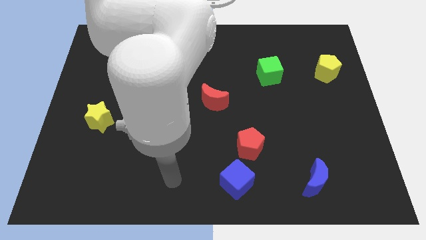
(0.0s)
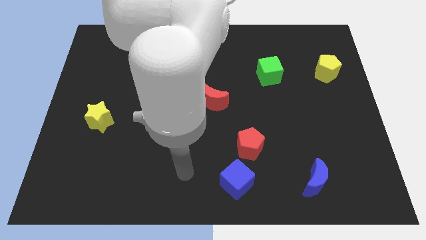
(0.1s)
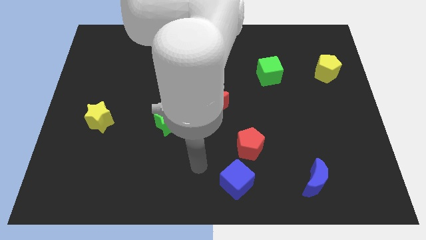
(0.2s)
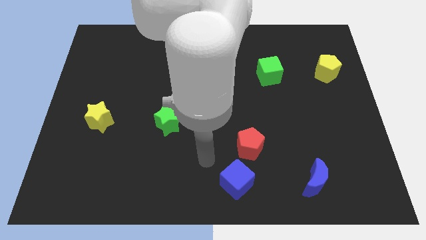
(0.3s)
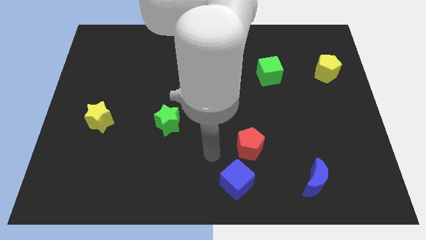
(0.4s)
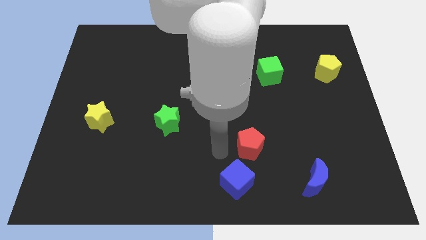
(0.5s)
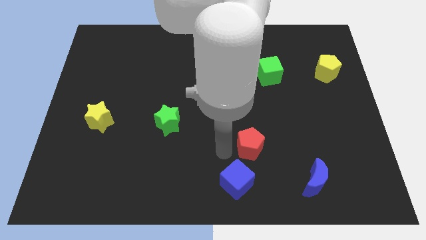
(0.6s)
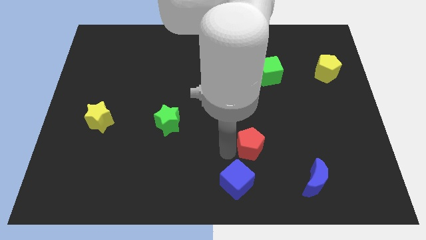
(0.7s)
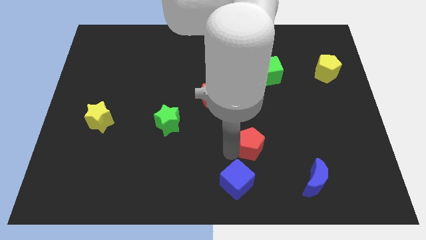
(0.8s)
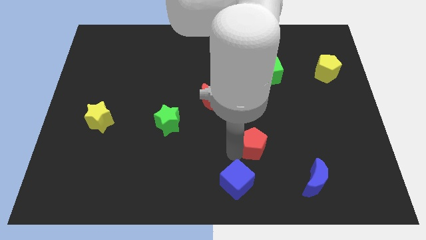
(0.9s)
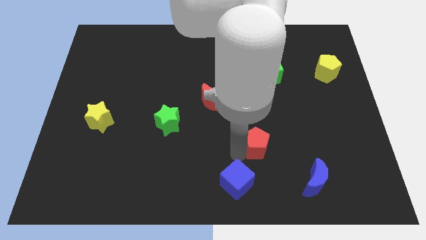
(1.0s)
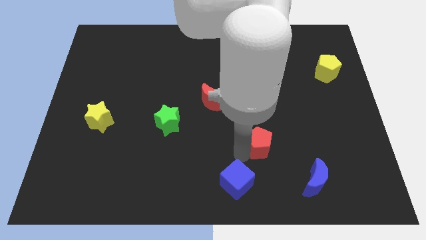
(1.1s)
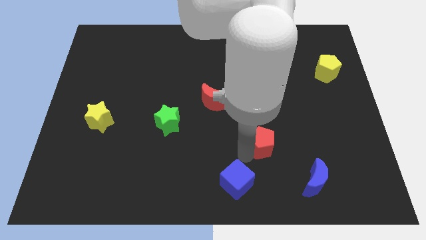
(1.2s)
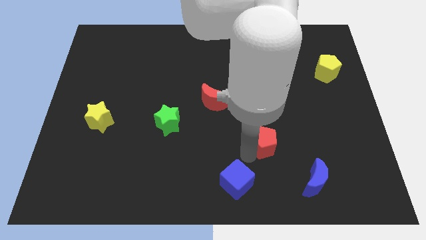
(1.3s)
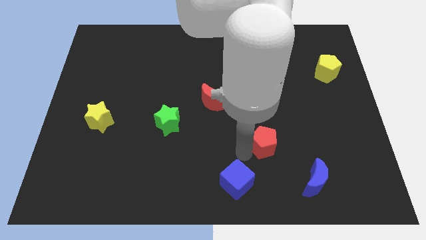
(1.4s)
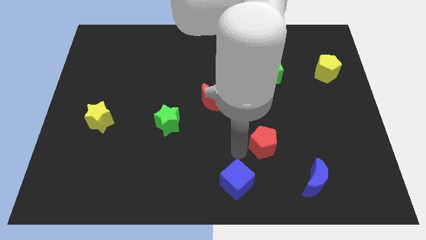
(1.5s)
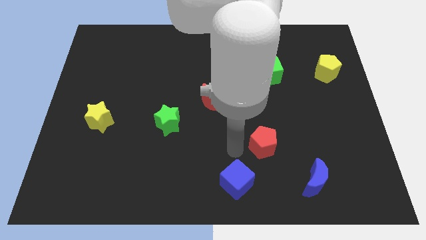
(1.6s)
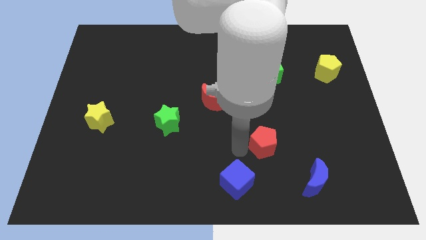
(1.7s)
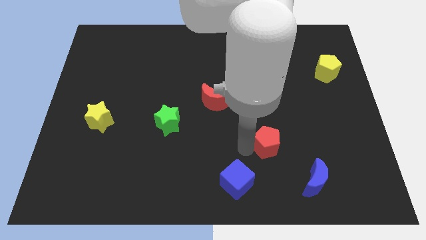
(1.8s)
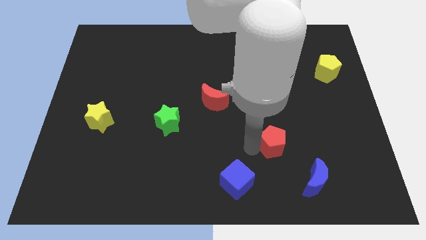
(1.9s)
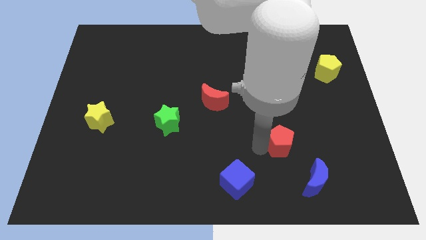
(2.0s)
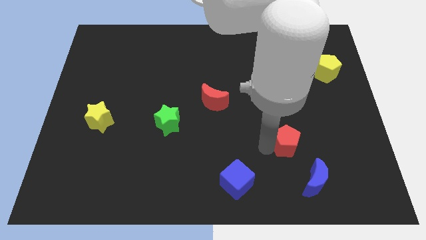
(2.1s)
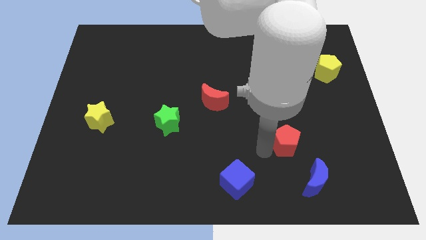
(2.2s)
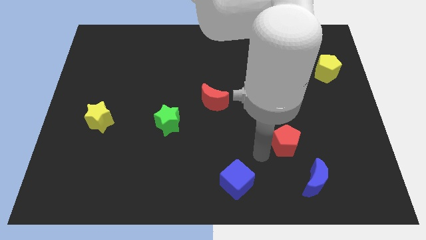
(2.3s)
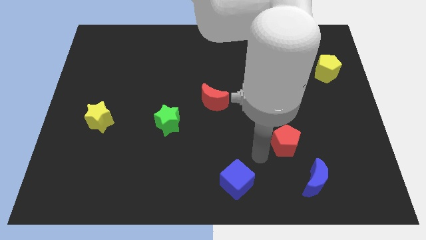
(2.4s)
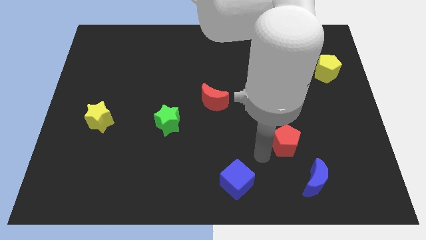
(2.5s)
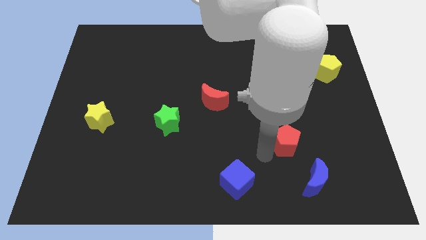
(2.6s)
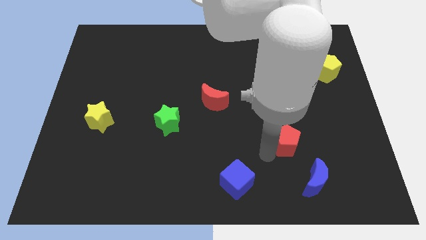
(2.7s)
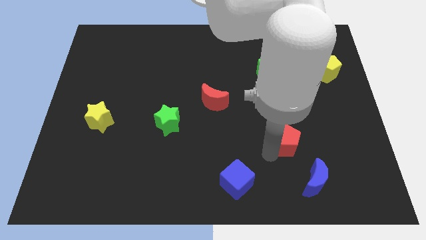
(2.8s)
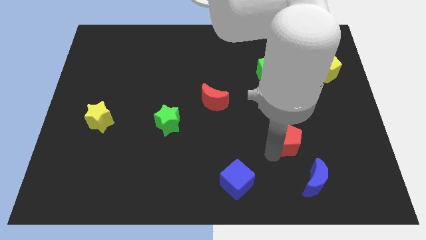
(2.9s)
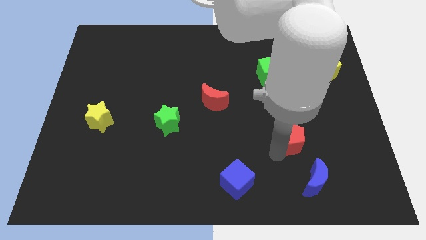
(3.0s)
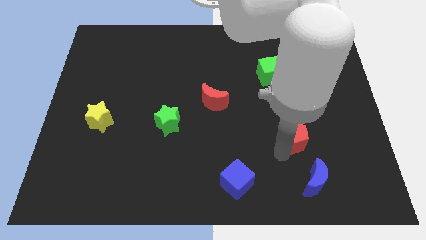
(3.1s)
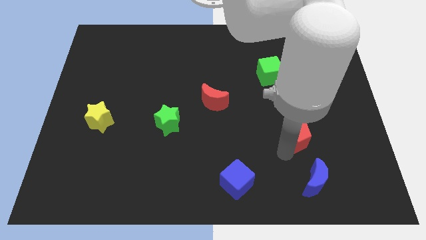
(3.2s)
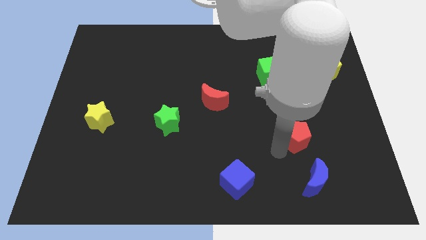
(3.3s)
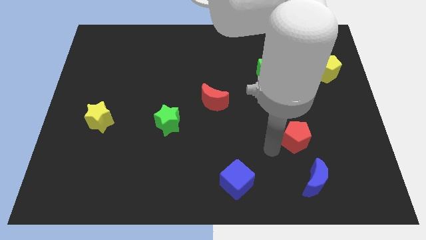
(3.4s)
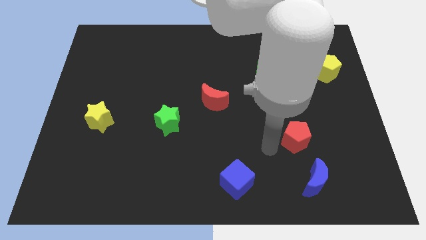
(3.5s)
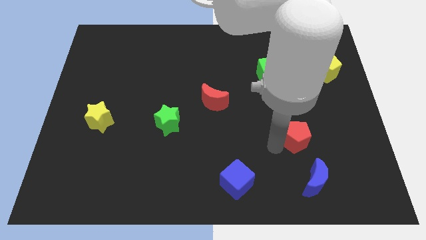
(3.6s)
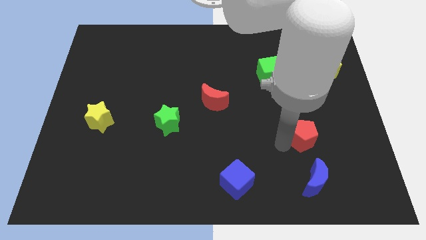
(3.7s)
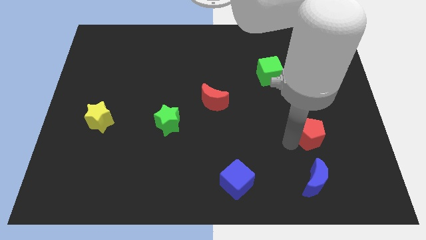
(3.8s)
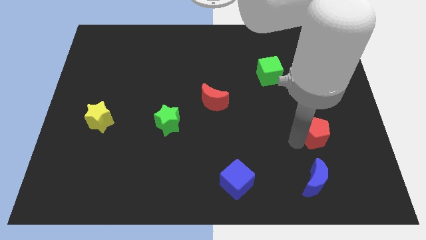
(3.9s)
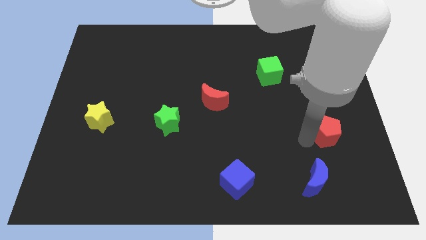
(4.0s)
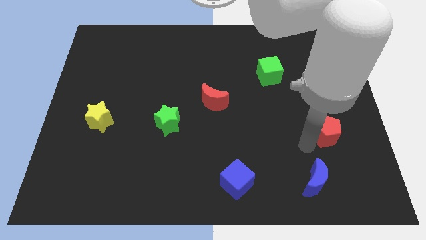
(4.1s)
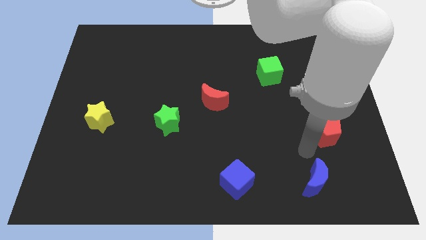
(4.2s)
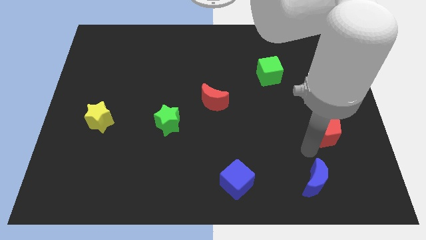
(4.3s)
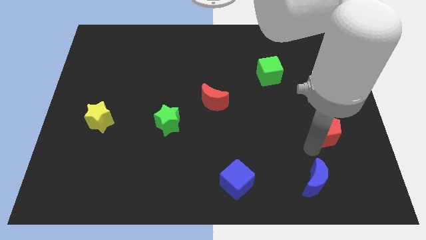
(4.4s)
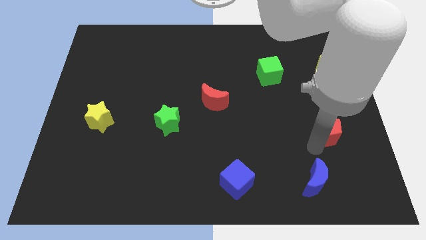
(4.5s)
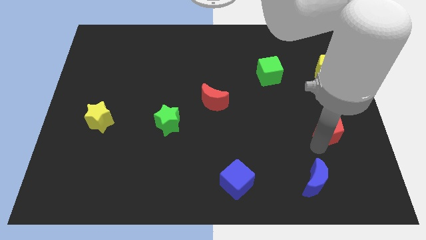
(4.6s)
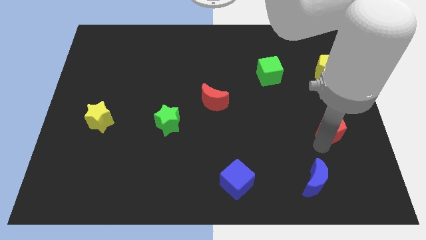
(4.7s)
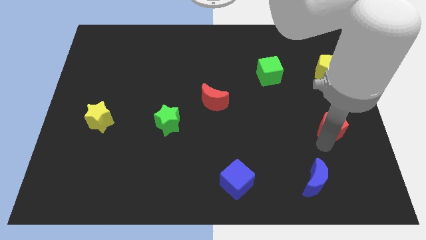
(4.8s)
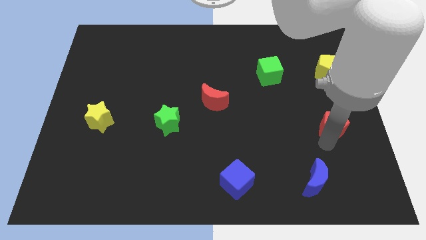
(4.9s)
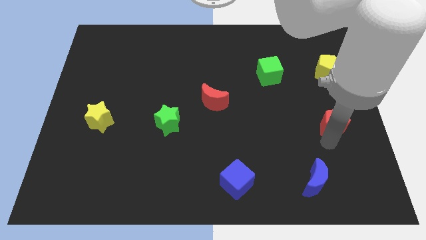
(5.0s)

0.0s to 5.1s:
push the red pentagon to the right side of the board

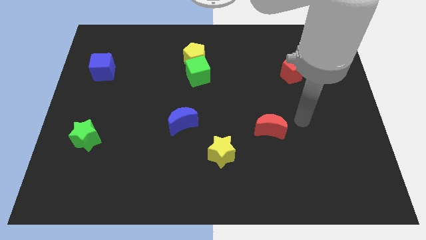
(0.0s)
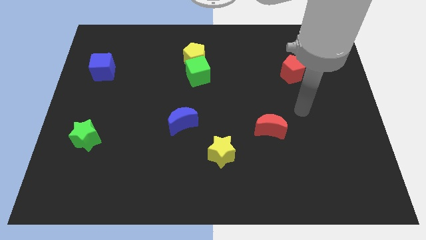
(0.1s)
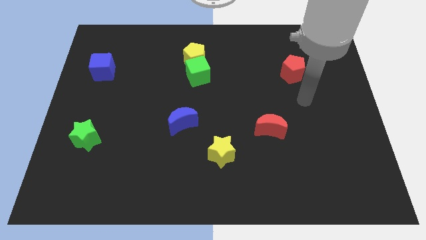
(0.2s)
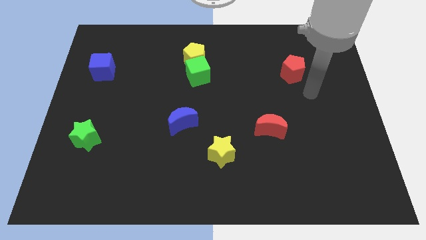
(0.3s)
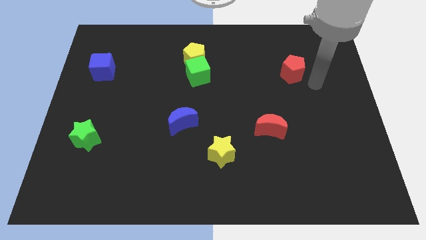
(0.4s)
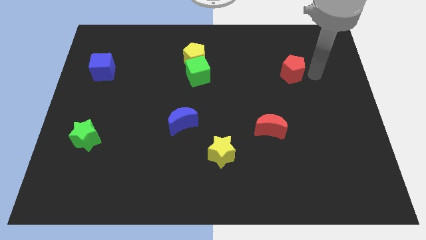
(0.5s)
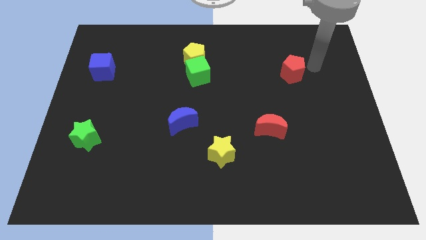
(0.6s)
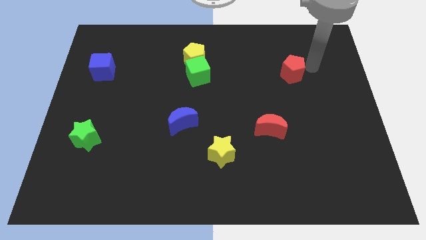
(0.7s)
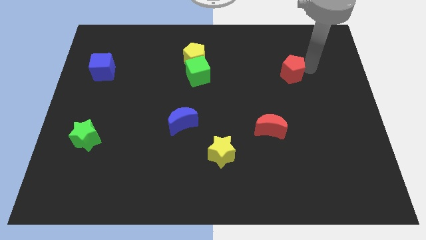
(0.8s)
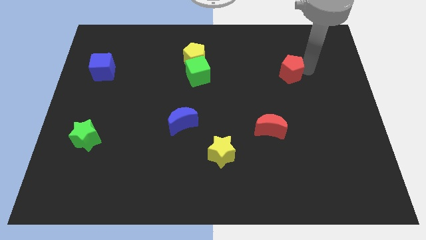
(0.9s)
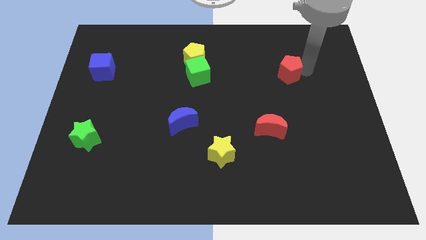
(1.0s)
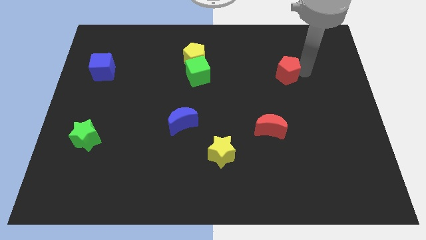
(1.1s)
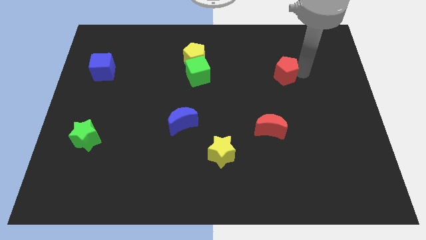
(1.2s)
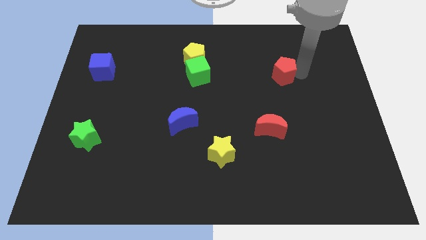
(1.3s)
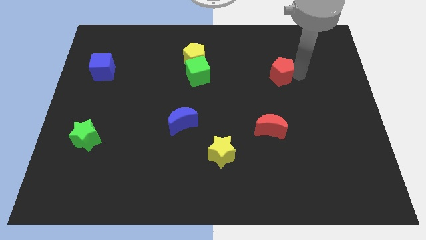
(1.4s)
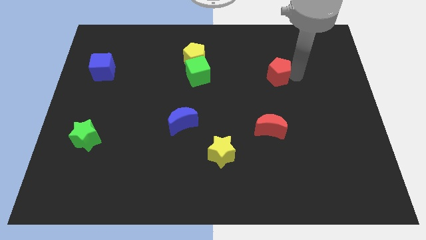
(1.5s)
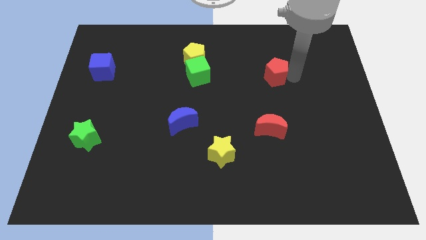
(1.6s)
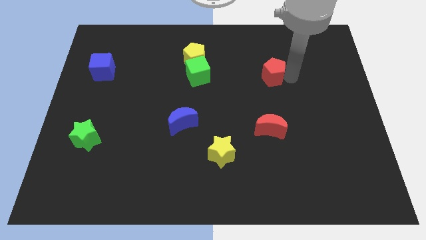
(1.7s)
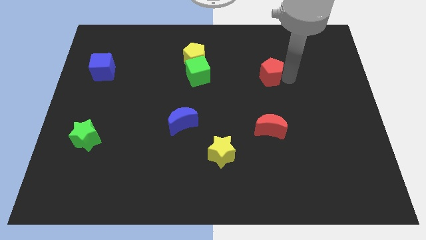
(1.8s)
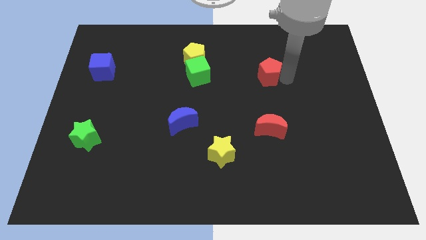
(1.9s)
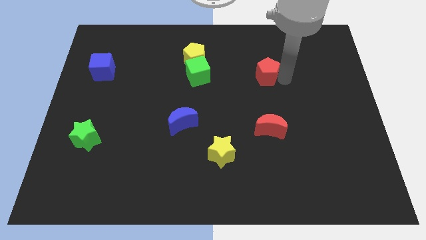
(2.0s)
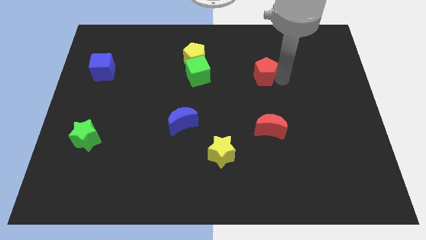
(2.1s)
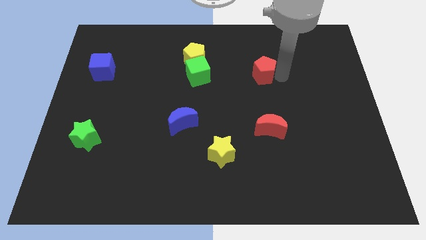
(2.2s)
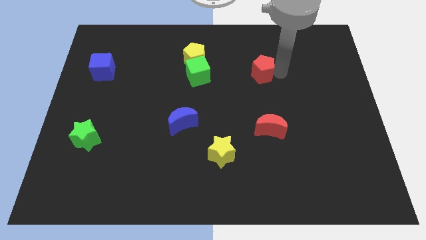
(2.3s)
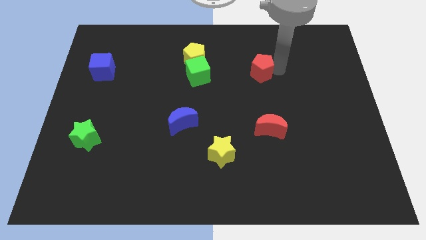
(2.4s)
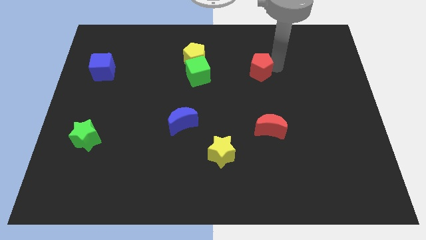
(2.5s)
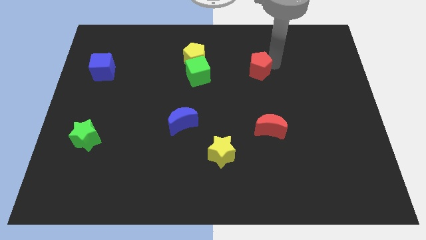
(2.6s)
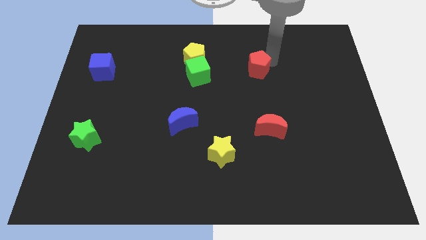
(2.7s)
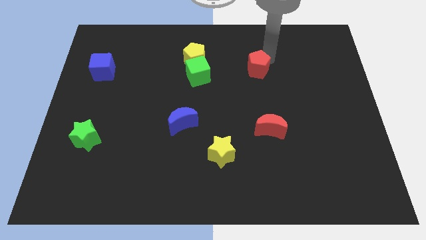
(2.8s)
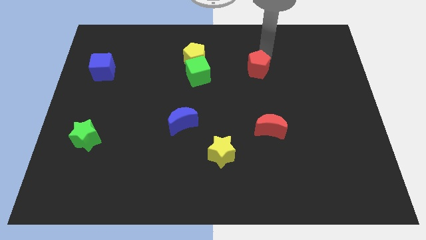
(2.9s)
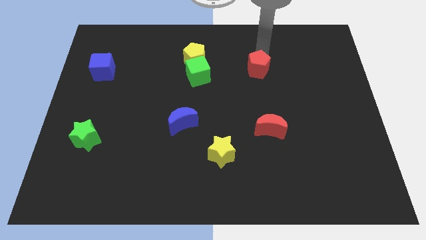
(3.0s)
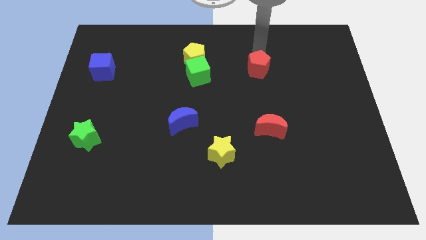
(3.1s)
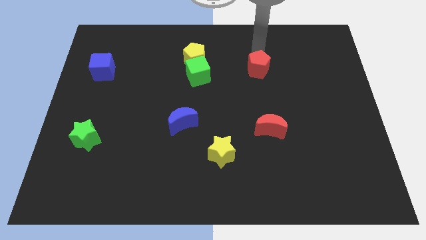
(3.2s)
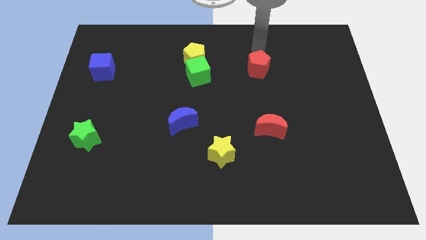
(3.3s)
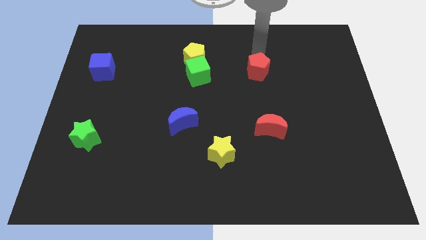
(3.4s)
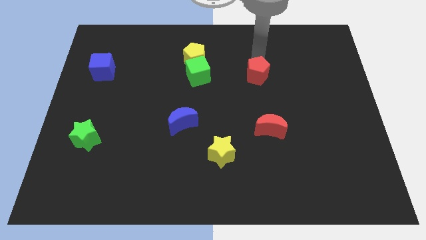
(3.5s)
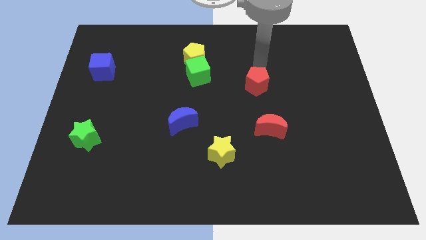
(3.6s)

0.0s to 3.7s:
move the red pentagon to the middle
